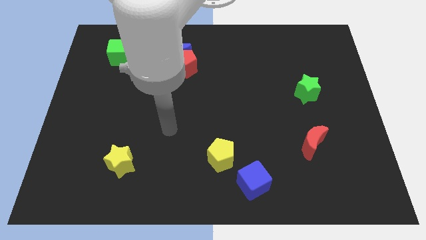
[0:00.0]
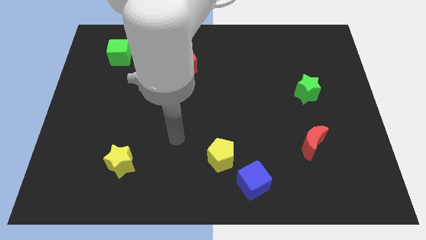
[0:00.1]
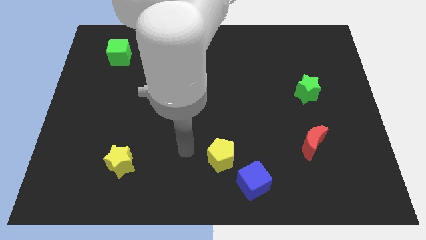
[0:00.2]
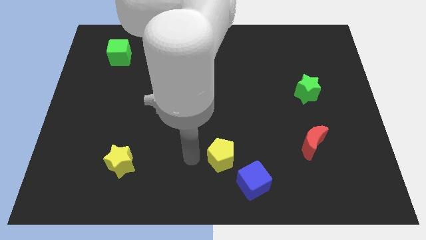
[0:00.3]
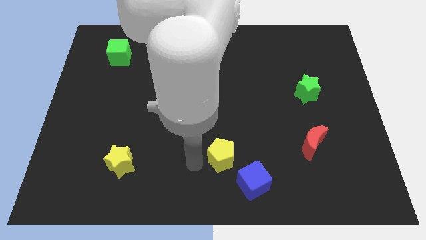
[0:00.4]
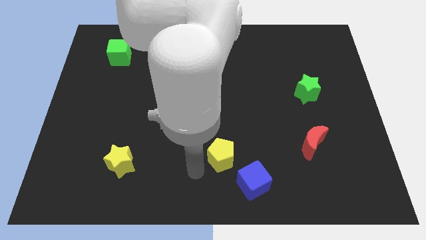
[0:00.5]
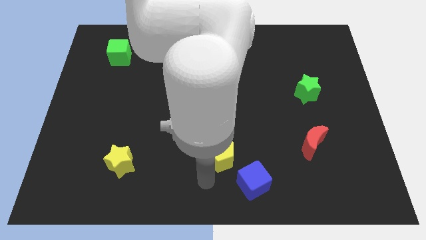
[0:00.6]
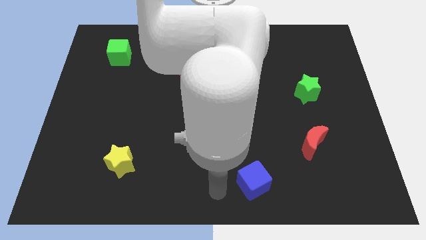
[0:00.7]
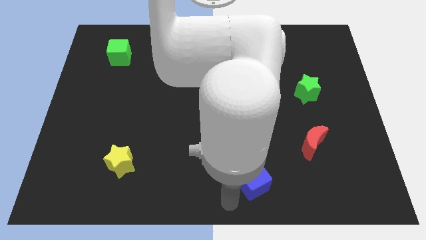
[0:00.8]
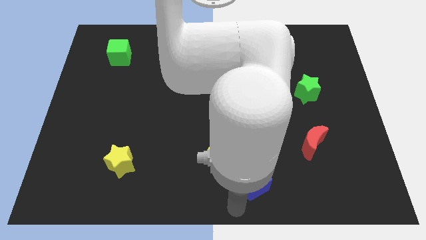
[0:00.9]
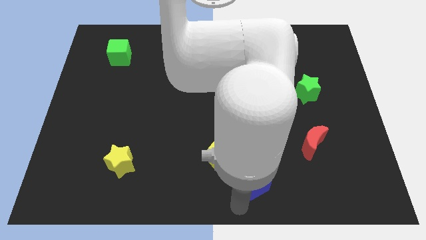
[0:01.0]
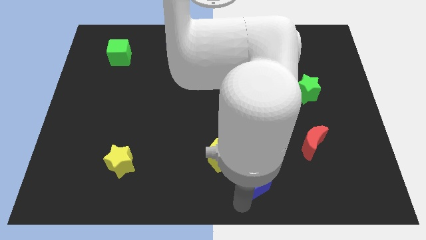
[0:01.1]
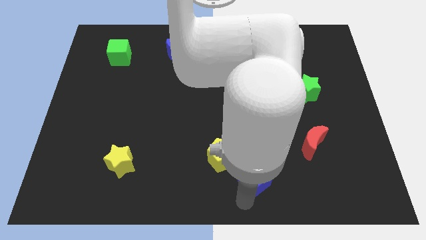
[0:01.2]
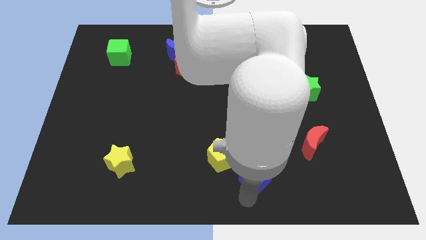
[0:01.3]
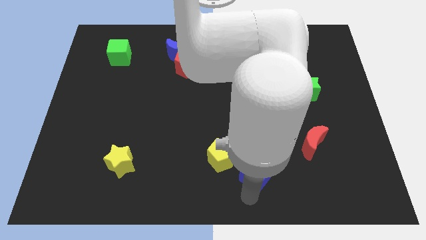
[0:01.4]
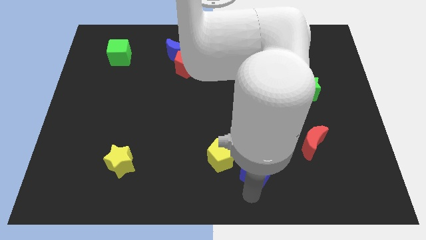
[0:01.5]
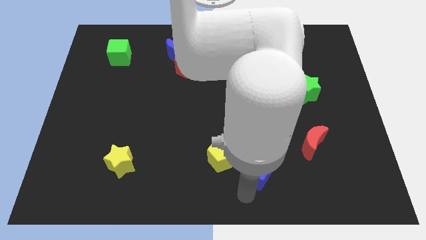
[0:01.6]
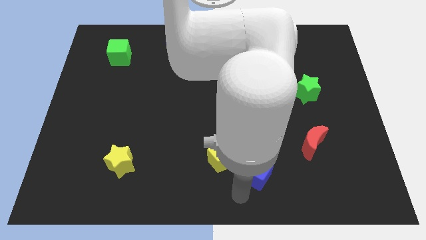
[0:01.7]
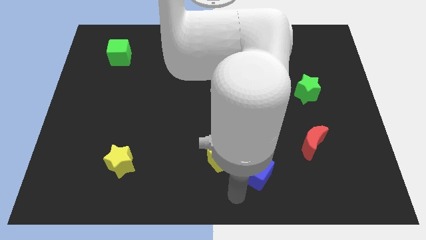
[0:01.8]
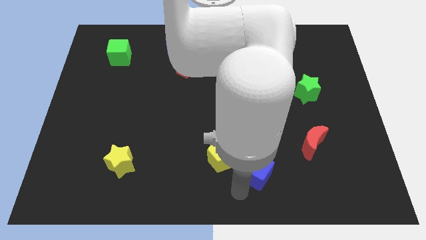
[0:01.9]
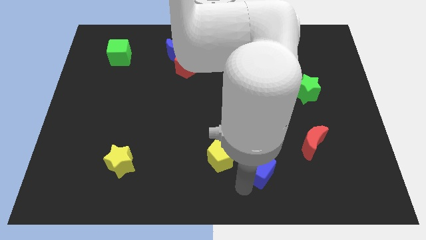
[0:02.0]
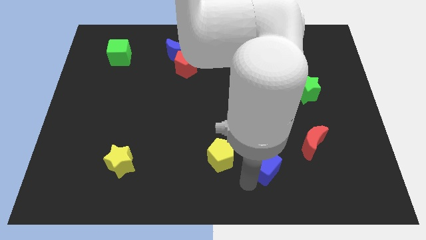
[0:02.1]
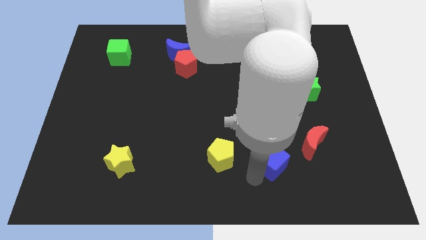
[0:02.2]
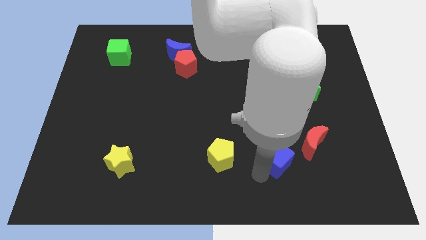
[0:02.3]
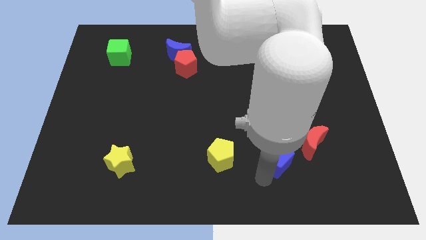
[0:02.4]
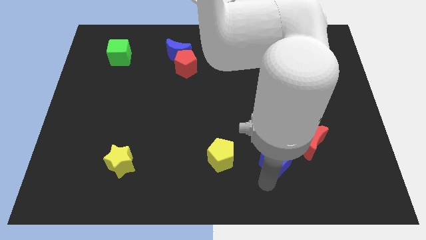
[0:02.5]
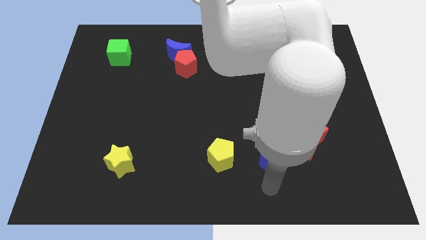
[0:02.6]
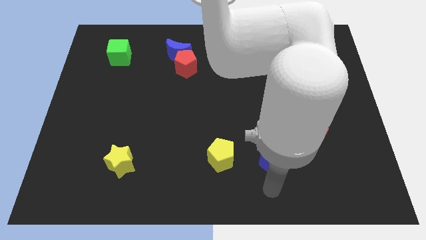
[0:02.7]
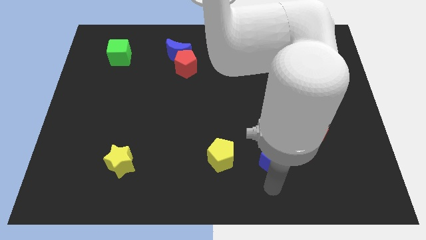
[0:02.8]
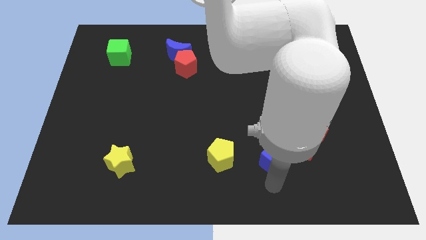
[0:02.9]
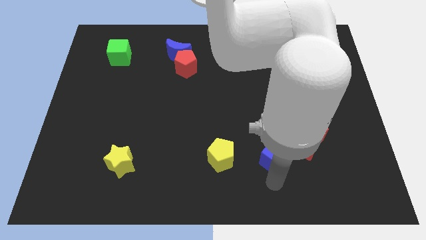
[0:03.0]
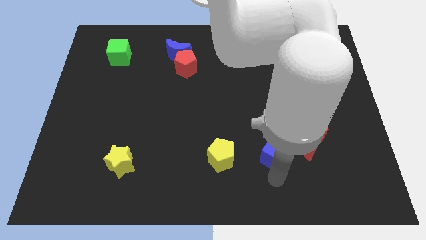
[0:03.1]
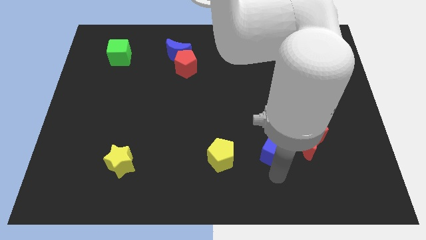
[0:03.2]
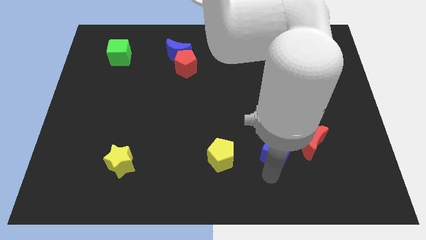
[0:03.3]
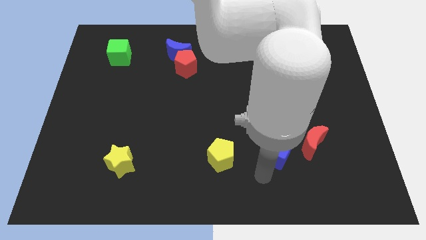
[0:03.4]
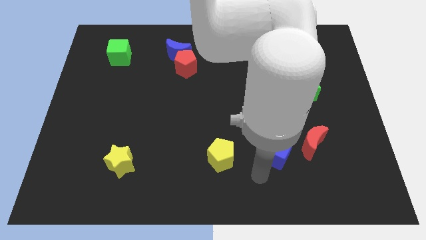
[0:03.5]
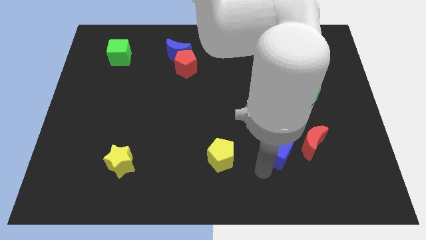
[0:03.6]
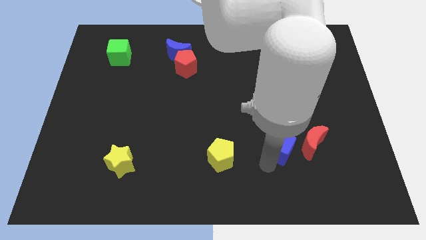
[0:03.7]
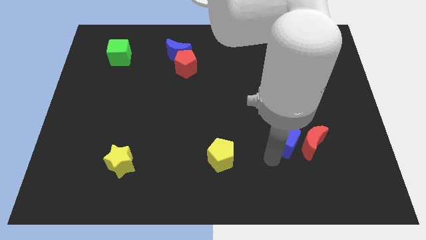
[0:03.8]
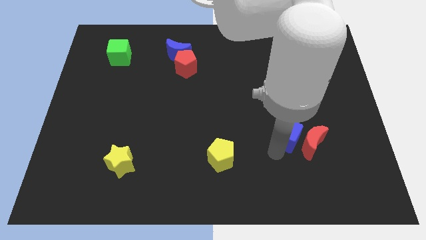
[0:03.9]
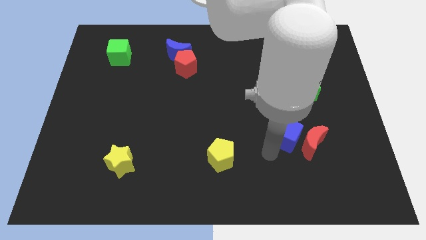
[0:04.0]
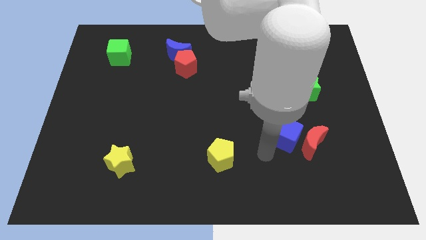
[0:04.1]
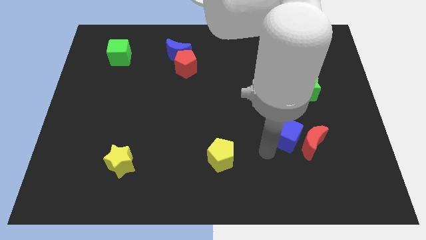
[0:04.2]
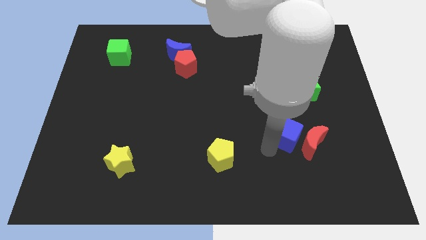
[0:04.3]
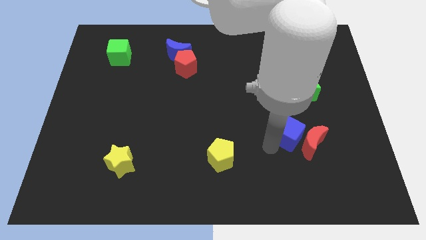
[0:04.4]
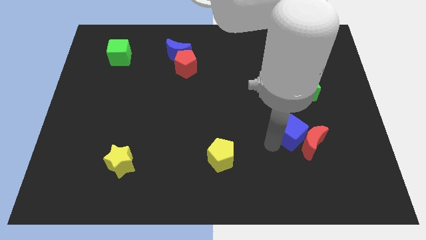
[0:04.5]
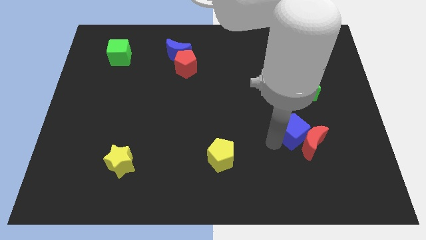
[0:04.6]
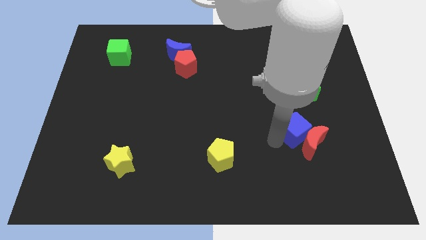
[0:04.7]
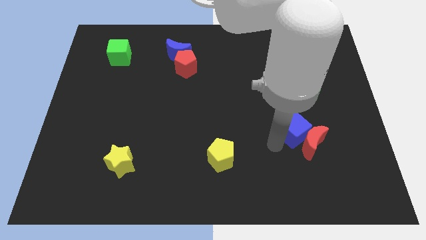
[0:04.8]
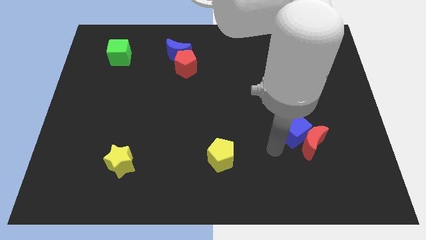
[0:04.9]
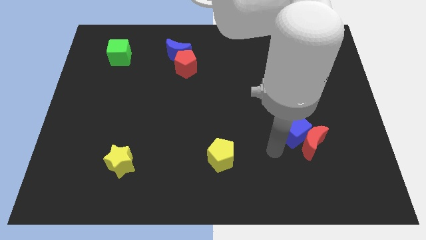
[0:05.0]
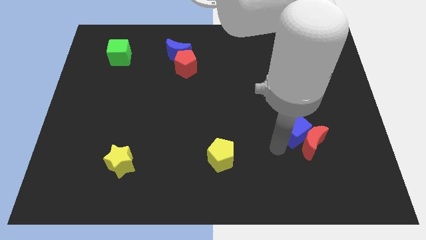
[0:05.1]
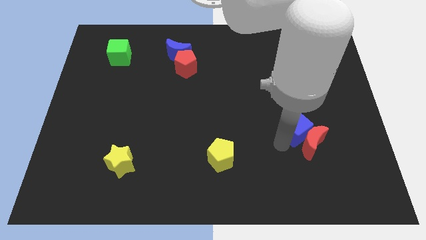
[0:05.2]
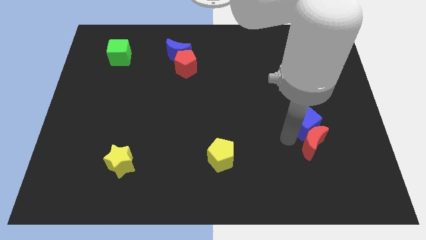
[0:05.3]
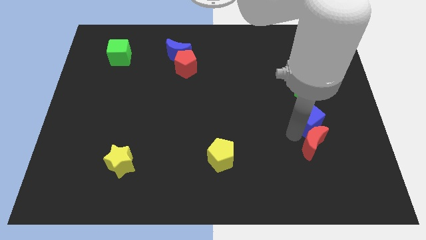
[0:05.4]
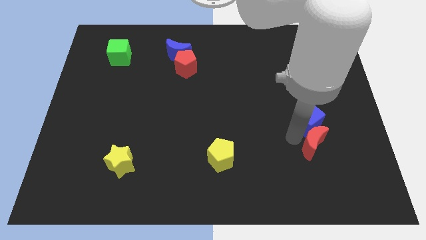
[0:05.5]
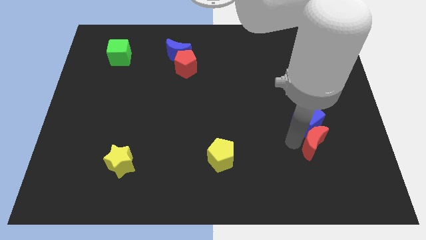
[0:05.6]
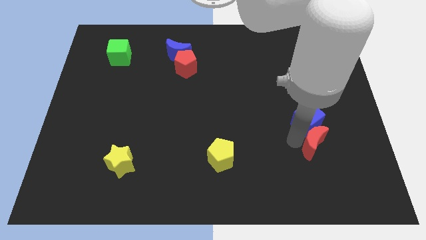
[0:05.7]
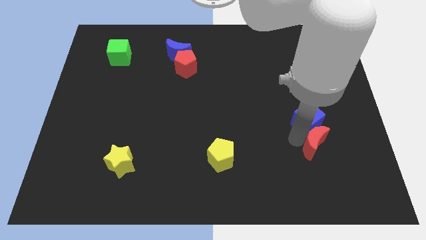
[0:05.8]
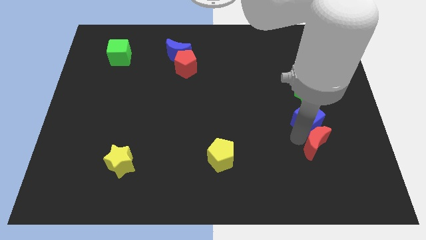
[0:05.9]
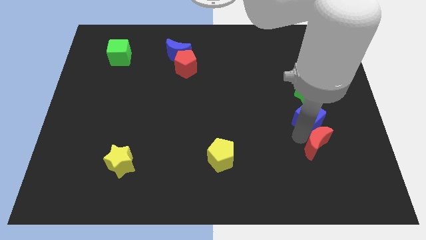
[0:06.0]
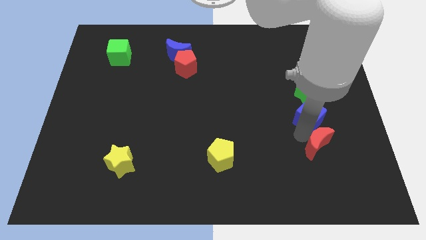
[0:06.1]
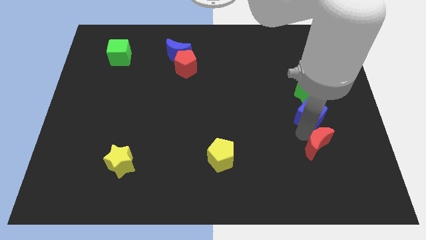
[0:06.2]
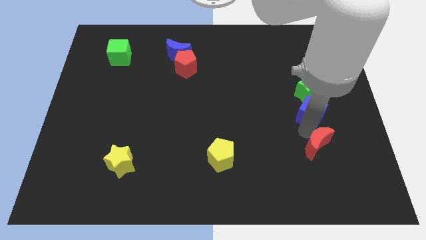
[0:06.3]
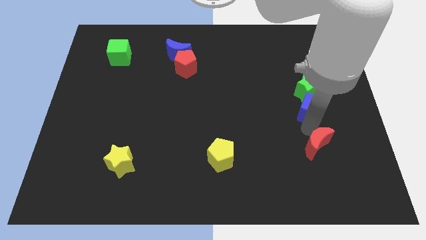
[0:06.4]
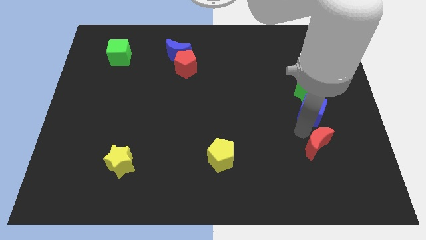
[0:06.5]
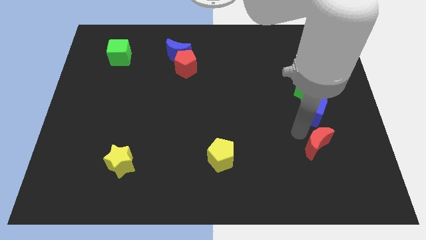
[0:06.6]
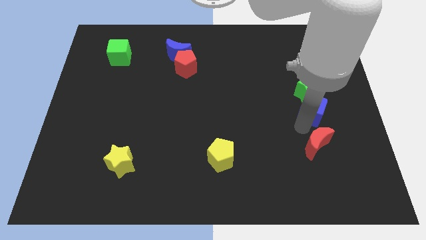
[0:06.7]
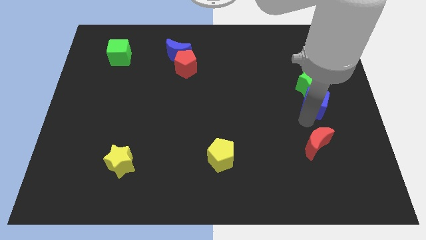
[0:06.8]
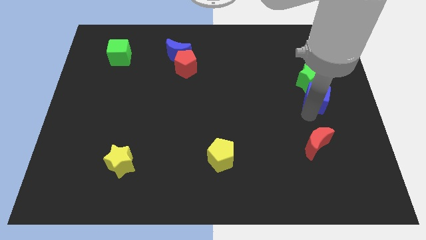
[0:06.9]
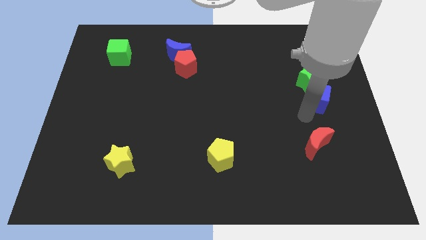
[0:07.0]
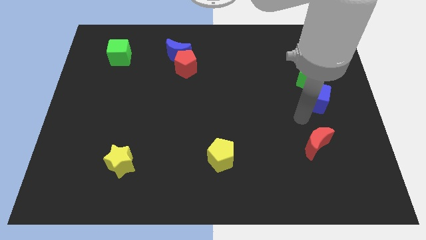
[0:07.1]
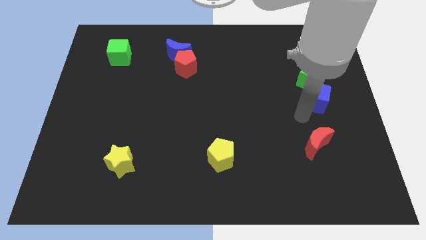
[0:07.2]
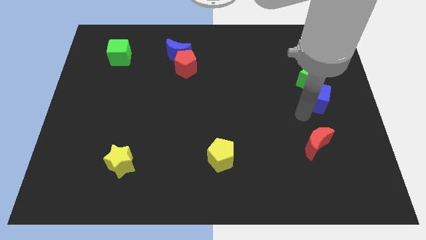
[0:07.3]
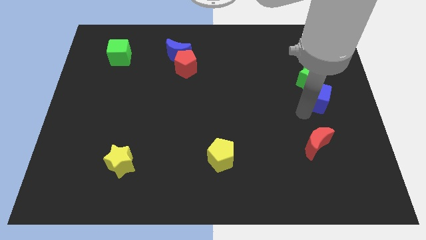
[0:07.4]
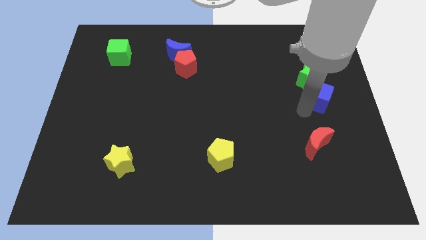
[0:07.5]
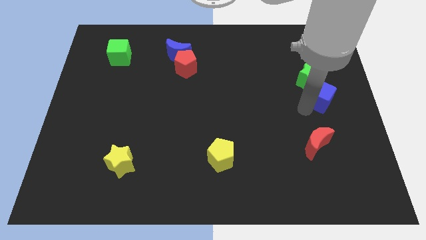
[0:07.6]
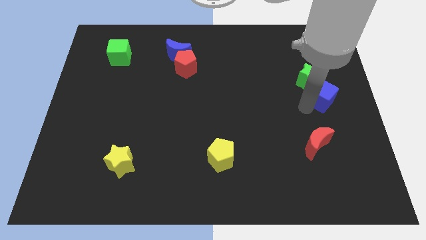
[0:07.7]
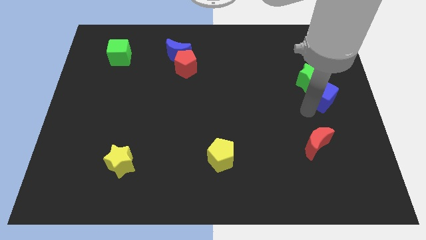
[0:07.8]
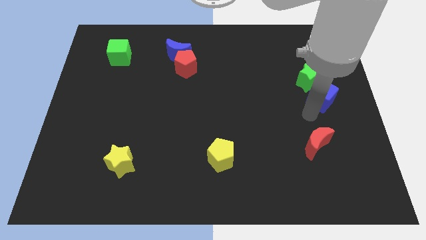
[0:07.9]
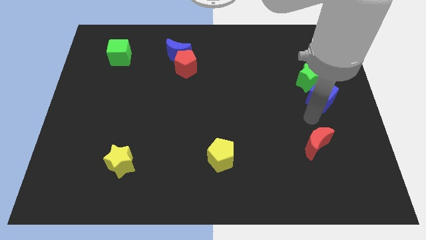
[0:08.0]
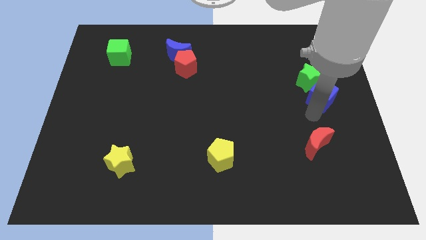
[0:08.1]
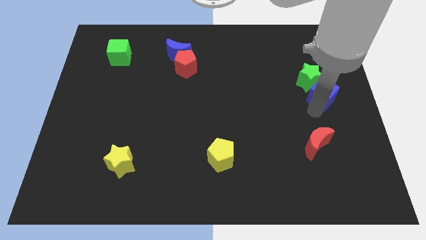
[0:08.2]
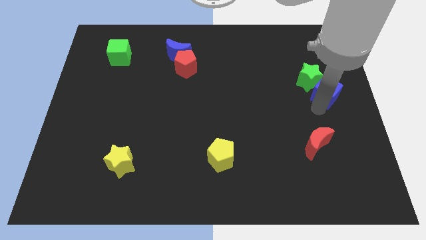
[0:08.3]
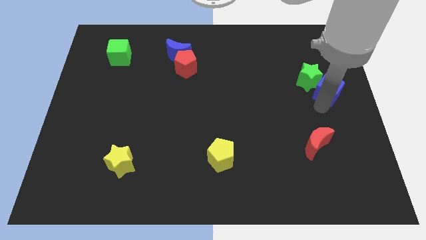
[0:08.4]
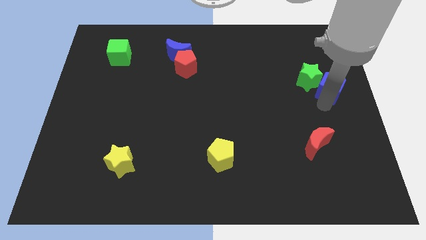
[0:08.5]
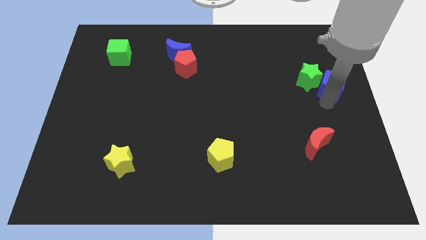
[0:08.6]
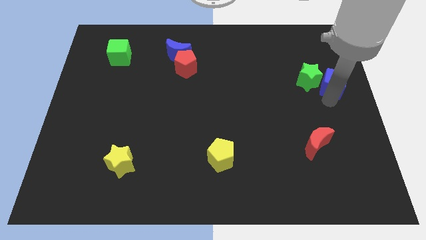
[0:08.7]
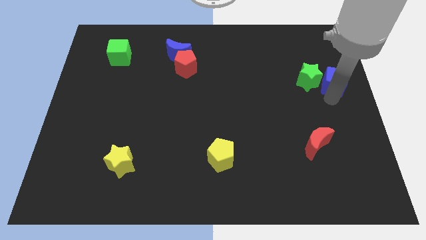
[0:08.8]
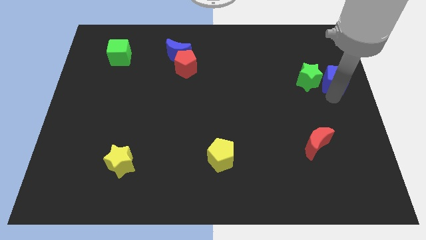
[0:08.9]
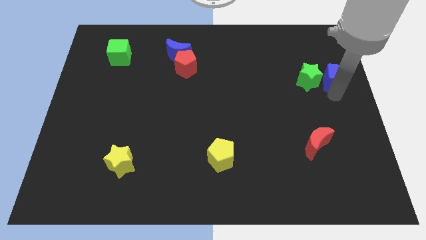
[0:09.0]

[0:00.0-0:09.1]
put the blue cube to the top right side of the green star
